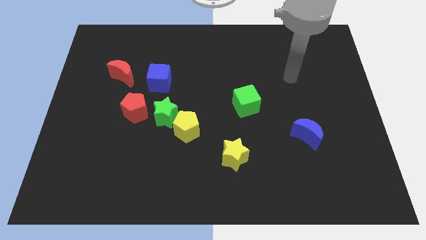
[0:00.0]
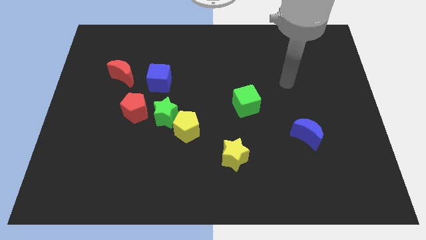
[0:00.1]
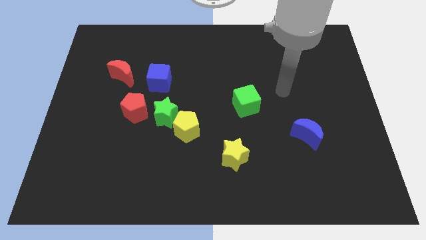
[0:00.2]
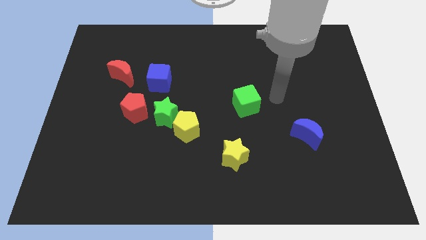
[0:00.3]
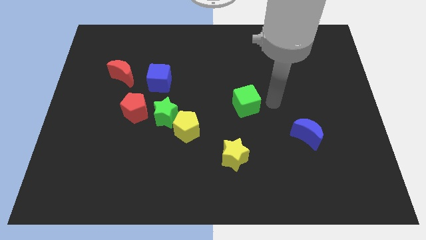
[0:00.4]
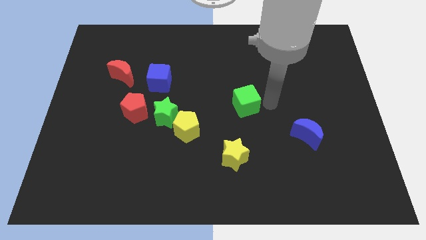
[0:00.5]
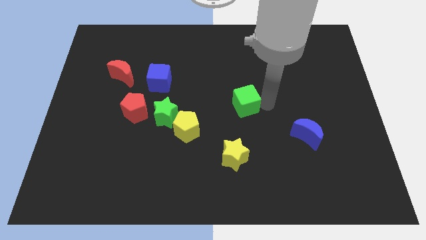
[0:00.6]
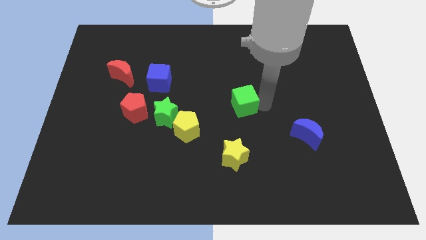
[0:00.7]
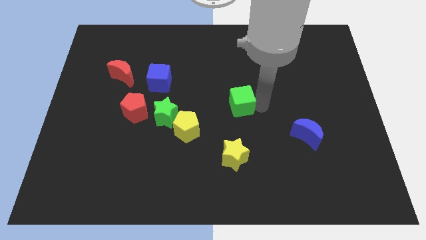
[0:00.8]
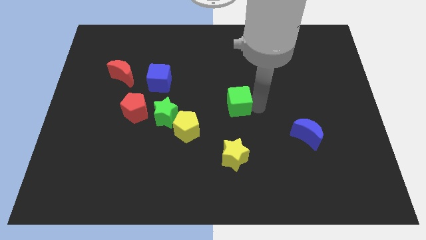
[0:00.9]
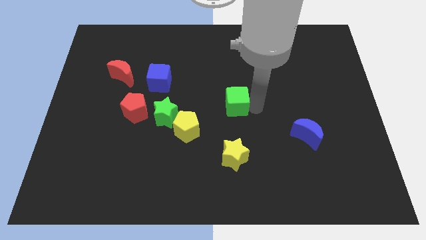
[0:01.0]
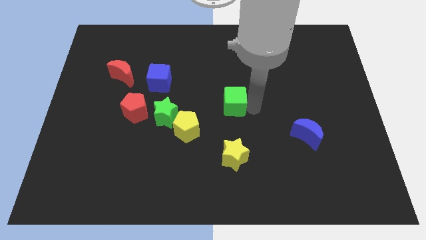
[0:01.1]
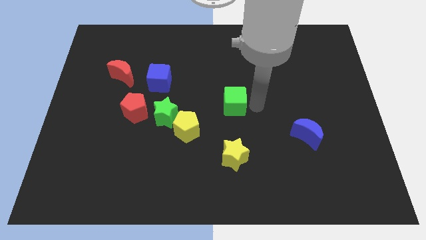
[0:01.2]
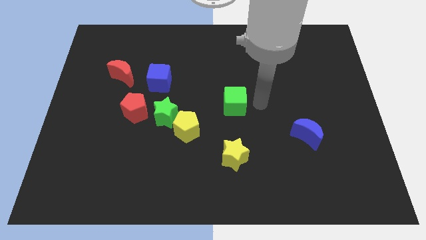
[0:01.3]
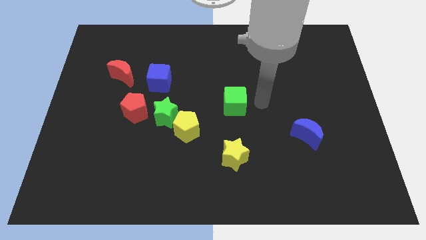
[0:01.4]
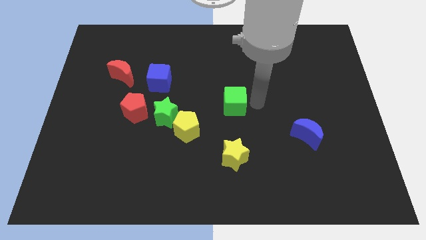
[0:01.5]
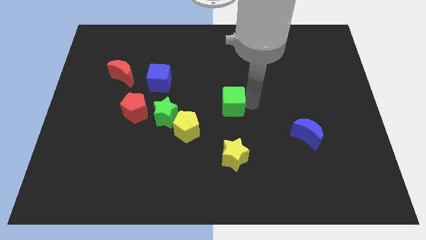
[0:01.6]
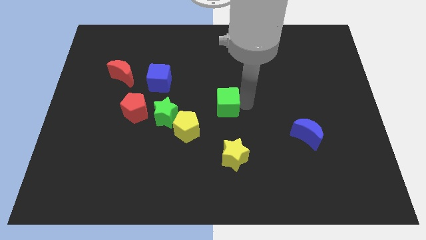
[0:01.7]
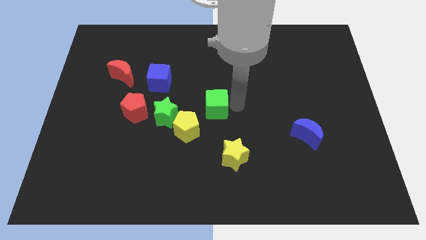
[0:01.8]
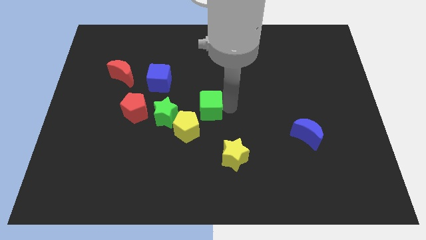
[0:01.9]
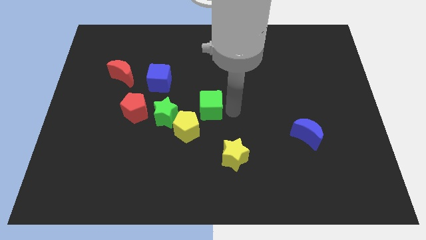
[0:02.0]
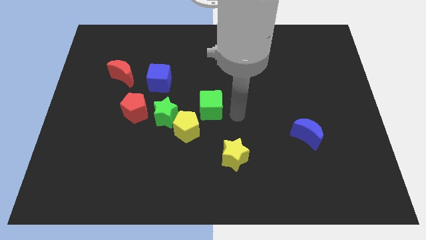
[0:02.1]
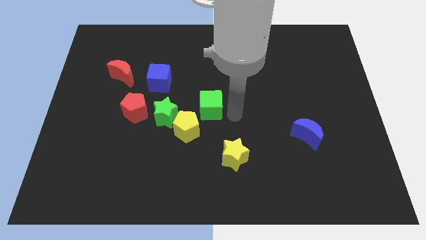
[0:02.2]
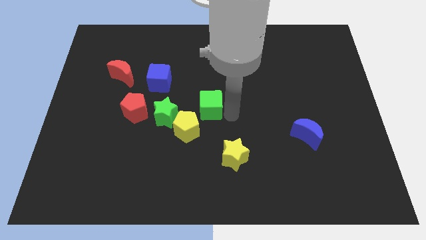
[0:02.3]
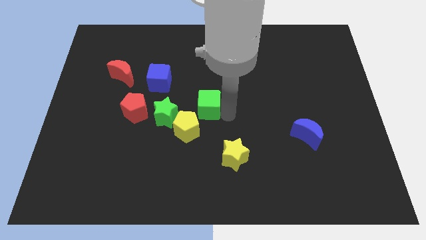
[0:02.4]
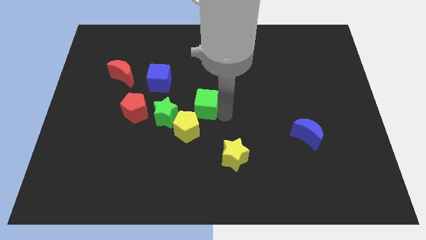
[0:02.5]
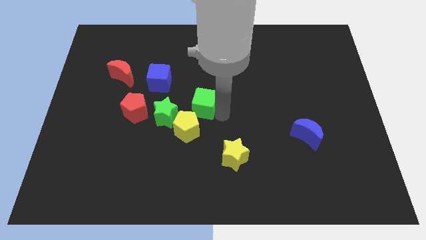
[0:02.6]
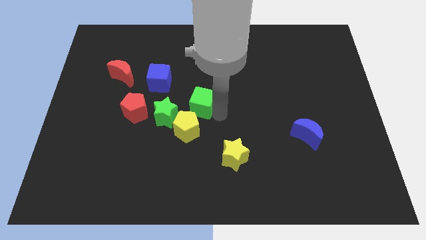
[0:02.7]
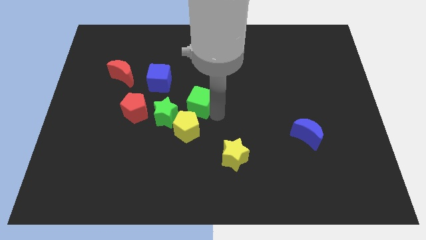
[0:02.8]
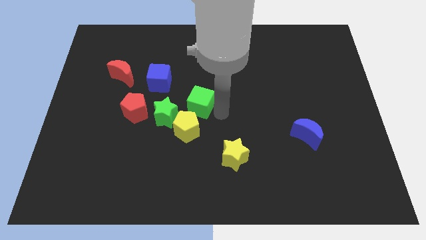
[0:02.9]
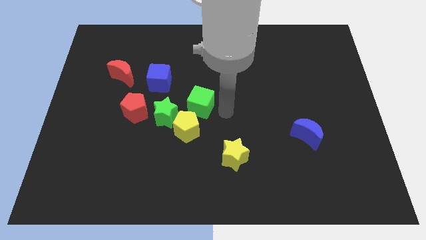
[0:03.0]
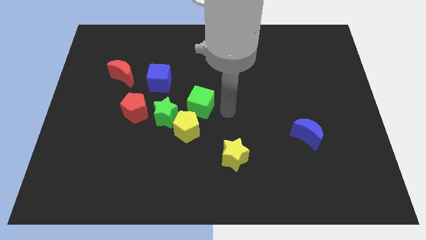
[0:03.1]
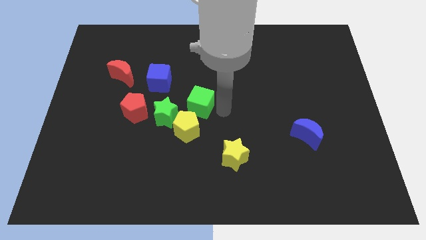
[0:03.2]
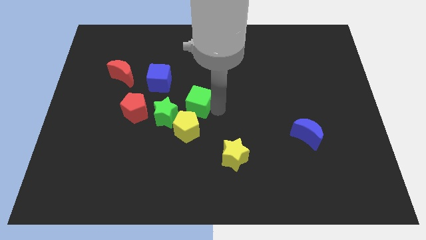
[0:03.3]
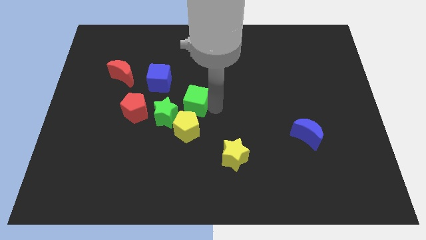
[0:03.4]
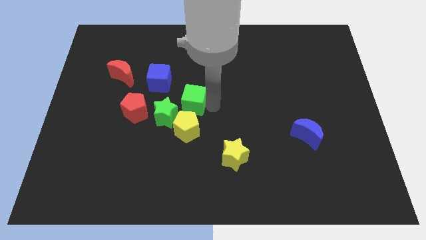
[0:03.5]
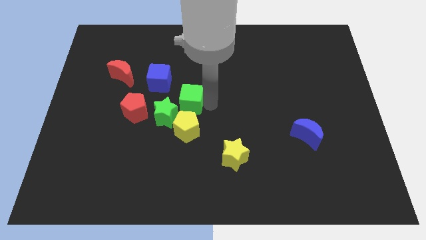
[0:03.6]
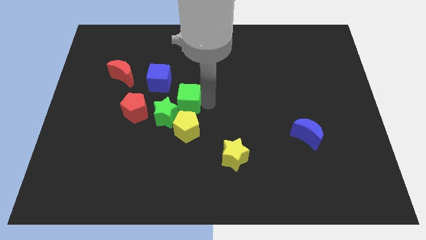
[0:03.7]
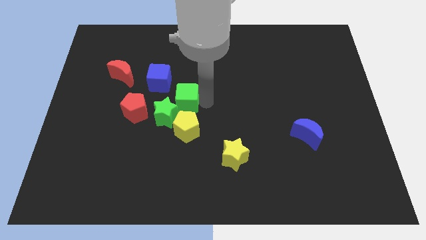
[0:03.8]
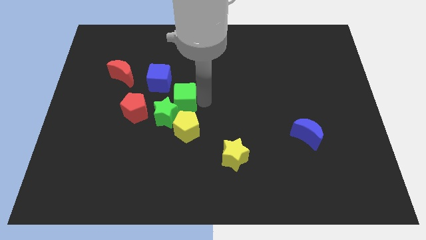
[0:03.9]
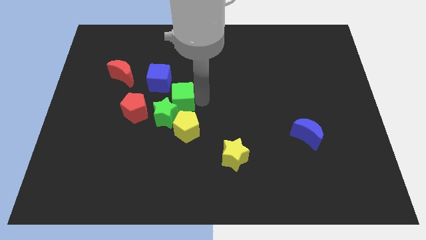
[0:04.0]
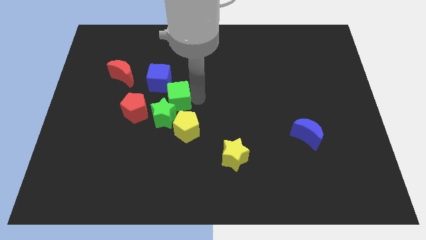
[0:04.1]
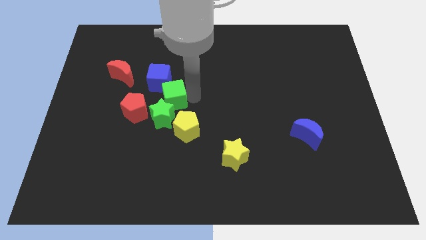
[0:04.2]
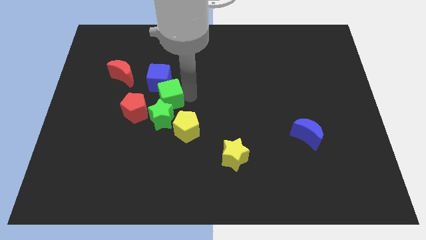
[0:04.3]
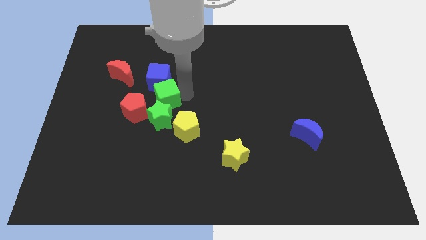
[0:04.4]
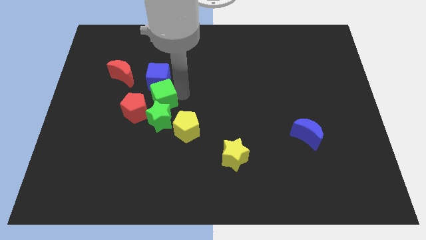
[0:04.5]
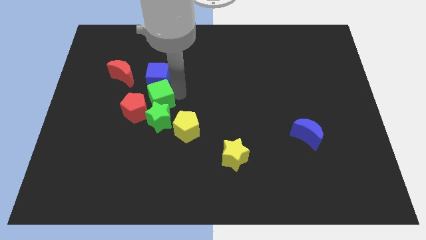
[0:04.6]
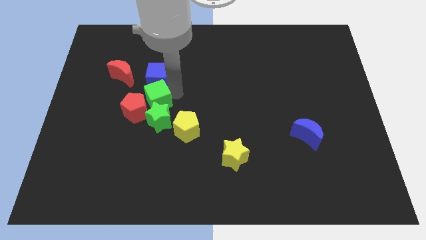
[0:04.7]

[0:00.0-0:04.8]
move the green cube next to the red pentagon

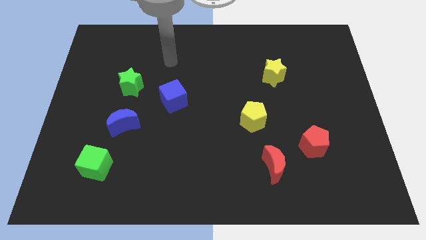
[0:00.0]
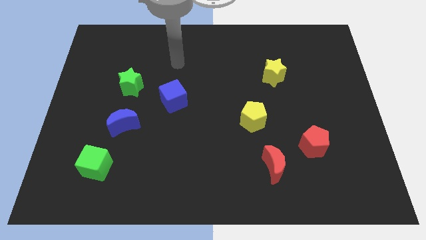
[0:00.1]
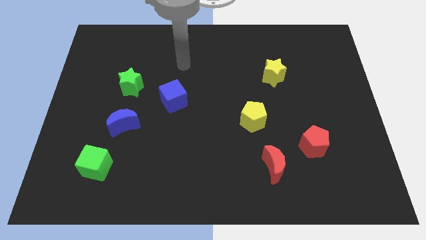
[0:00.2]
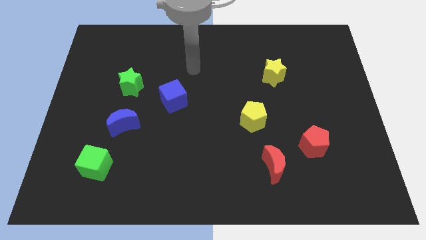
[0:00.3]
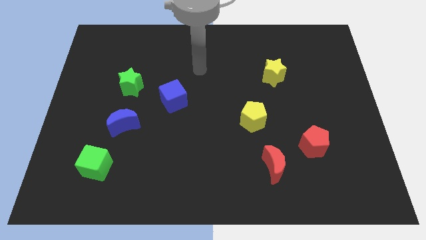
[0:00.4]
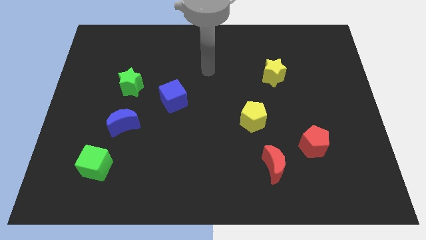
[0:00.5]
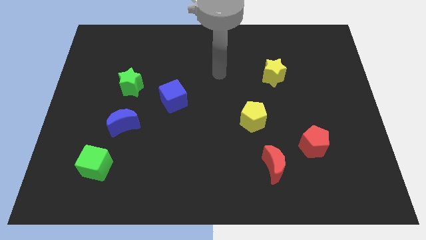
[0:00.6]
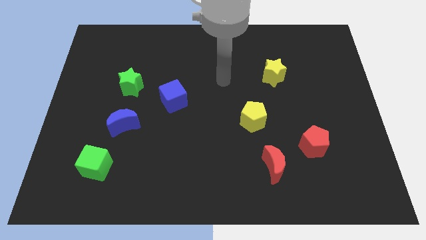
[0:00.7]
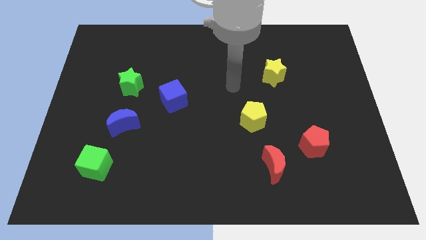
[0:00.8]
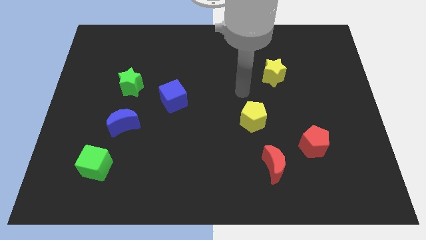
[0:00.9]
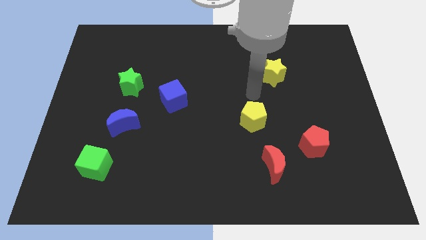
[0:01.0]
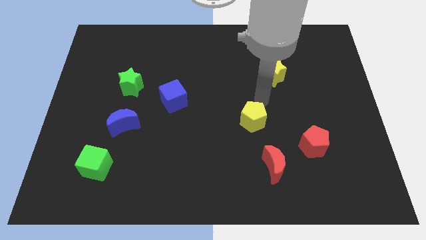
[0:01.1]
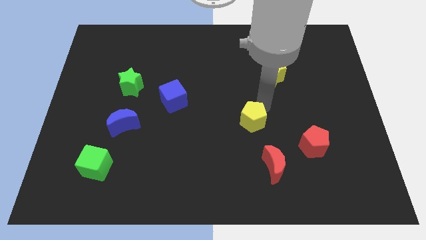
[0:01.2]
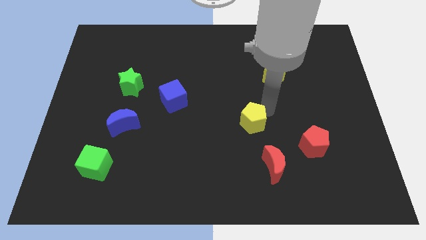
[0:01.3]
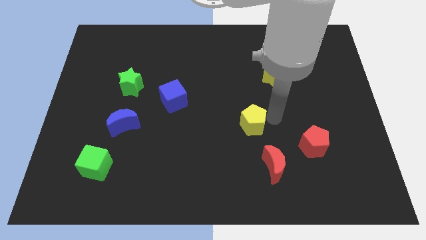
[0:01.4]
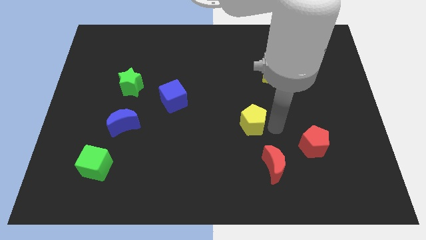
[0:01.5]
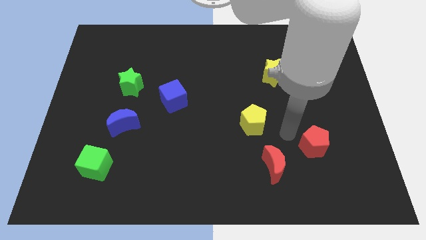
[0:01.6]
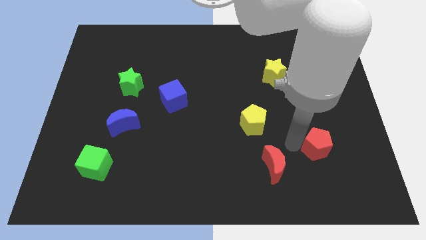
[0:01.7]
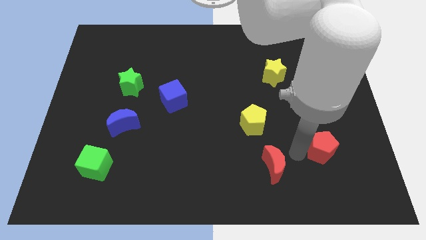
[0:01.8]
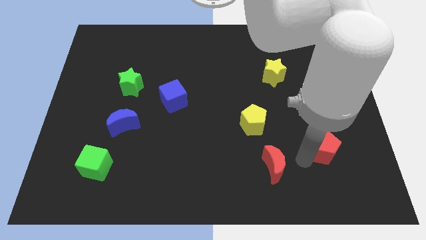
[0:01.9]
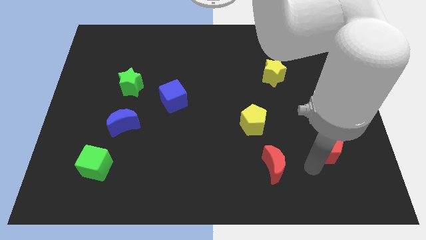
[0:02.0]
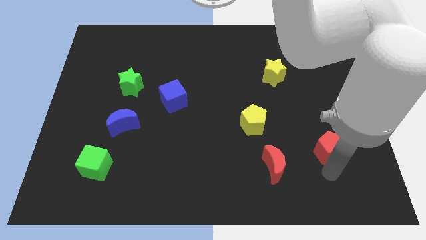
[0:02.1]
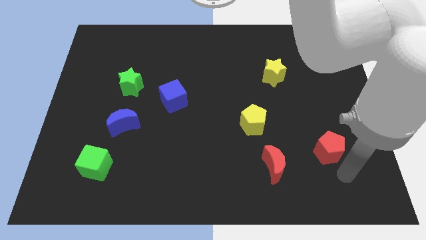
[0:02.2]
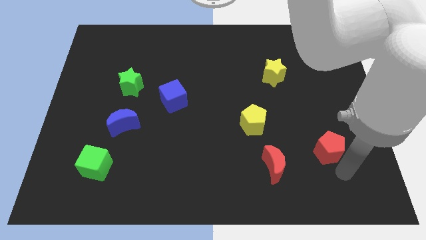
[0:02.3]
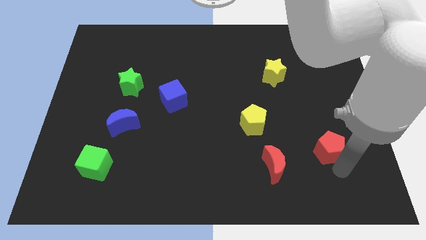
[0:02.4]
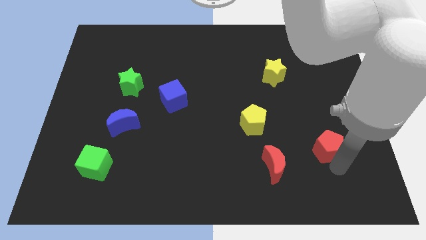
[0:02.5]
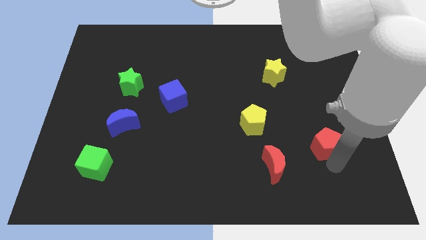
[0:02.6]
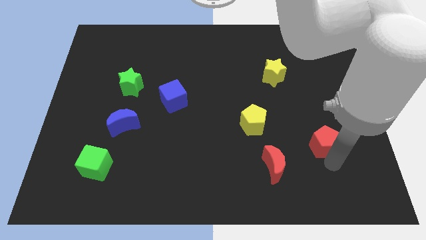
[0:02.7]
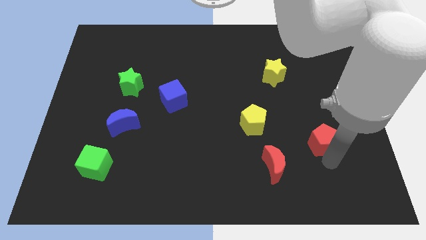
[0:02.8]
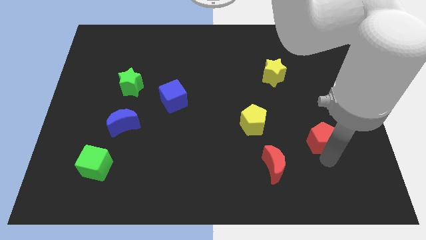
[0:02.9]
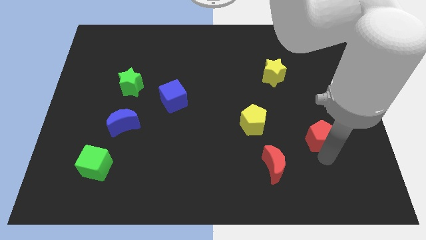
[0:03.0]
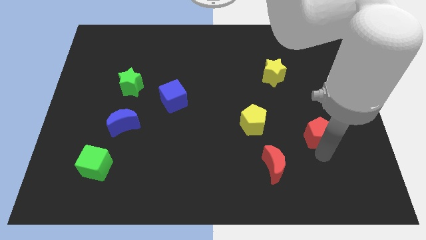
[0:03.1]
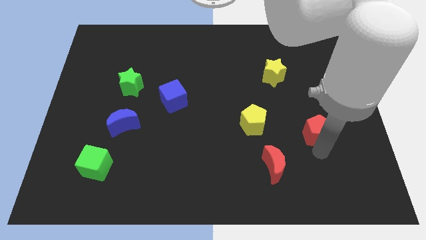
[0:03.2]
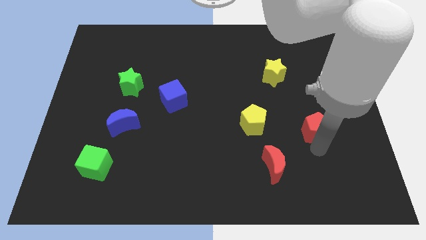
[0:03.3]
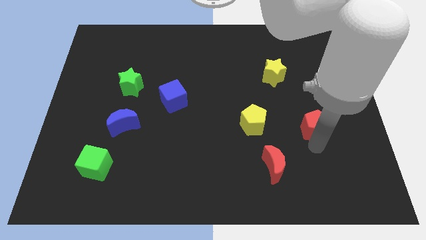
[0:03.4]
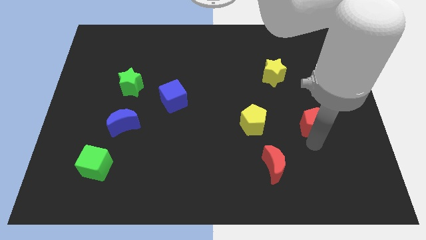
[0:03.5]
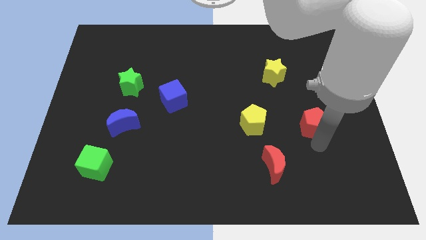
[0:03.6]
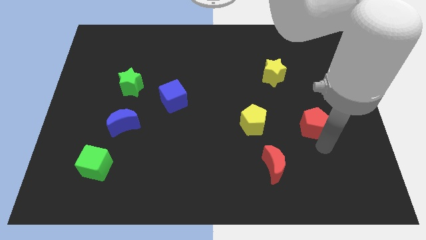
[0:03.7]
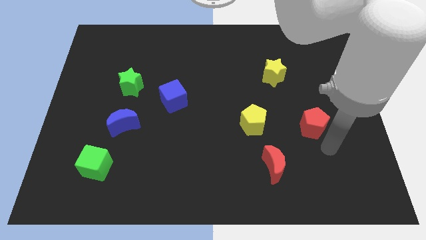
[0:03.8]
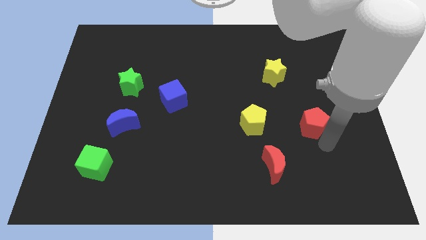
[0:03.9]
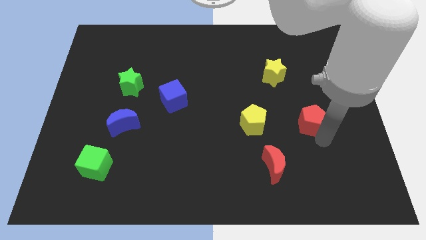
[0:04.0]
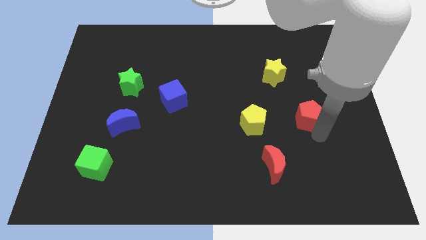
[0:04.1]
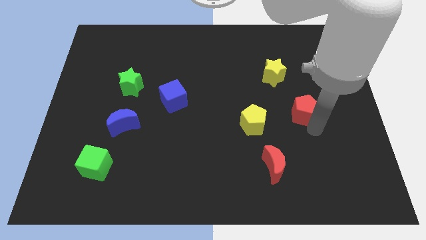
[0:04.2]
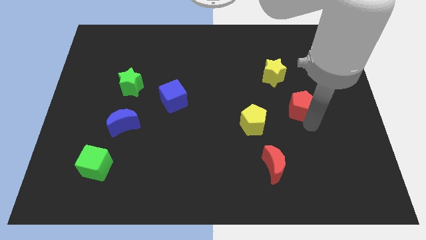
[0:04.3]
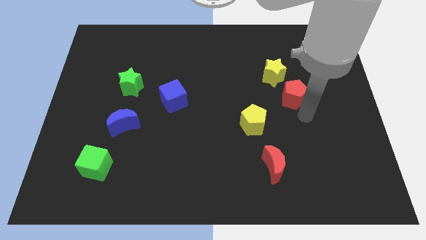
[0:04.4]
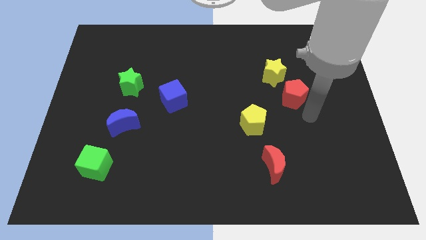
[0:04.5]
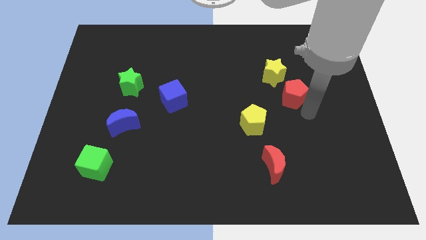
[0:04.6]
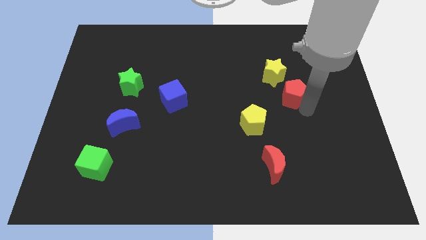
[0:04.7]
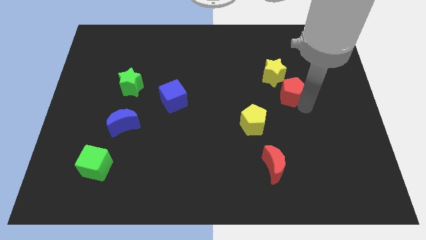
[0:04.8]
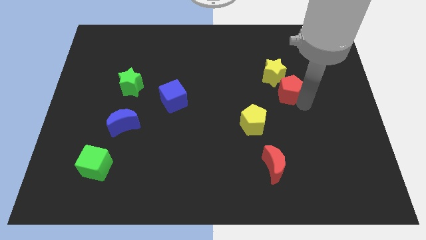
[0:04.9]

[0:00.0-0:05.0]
push the red pentagon towards the yellow star
